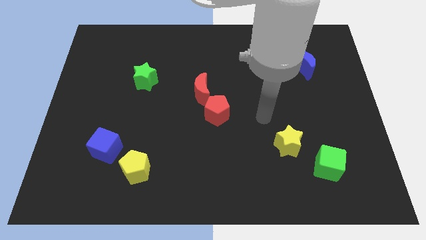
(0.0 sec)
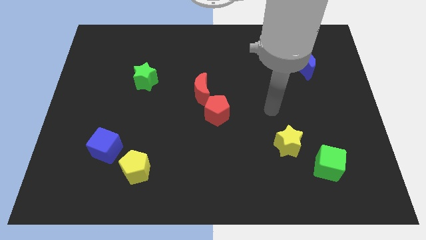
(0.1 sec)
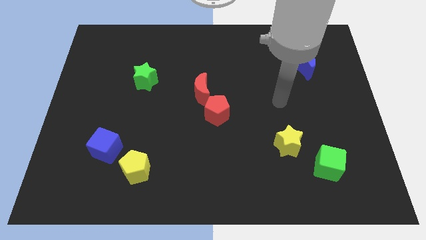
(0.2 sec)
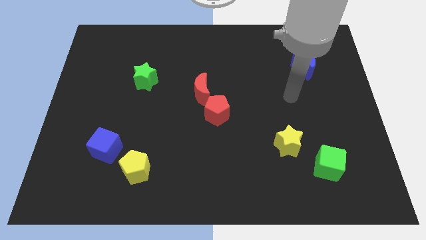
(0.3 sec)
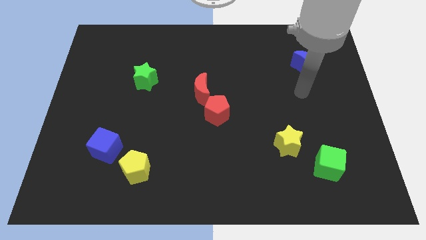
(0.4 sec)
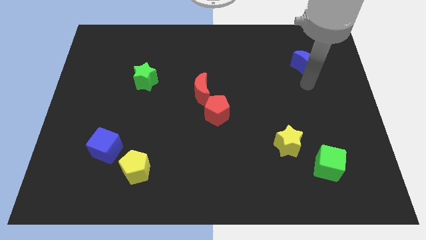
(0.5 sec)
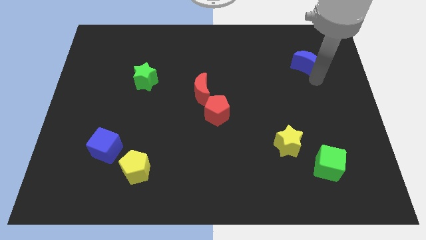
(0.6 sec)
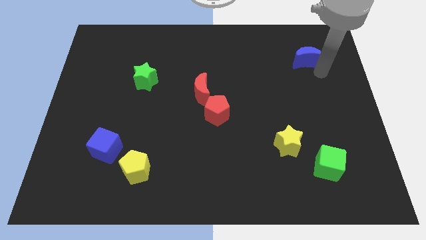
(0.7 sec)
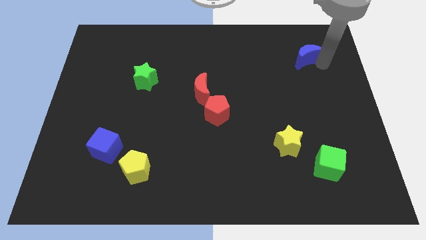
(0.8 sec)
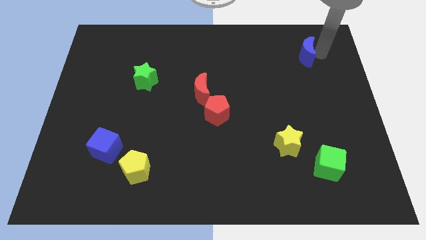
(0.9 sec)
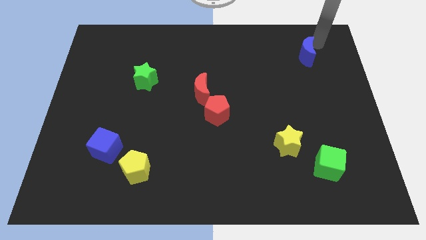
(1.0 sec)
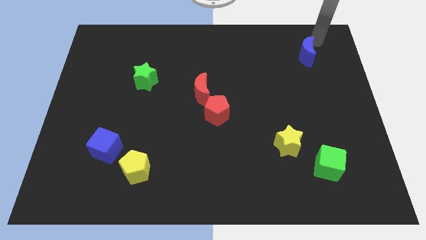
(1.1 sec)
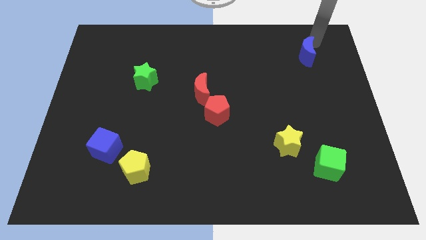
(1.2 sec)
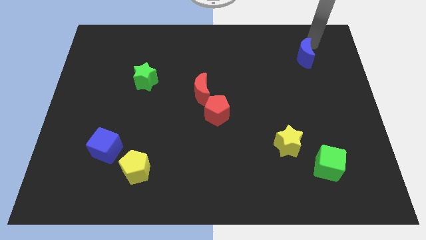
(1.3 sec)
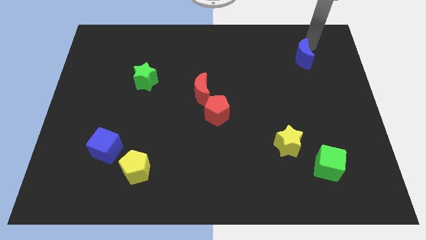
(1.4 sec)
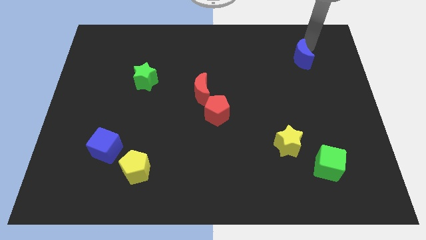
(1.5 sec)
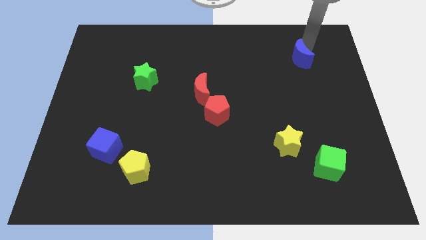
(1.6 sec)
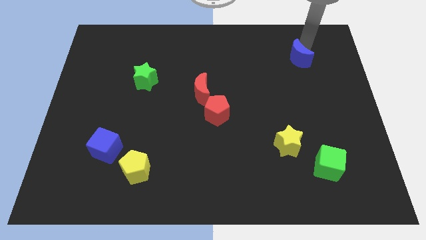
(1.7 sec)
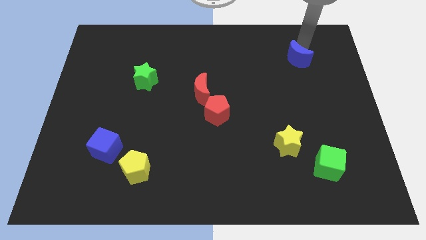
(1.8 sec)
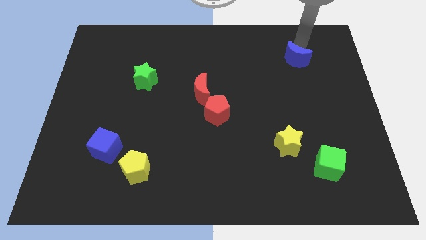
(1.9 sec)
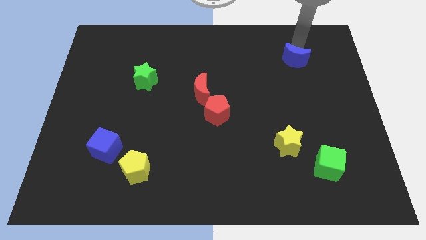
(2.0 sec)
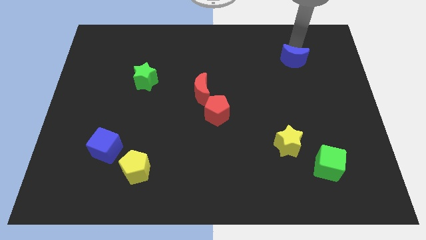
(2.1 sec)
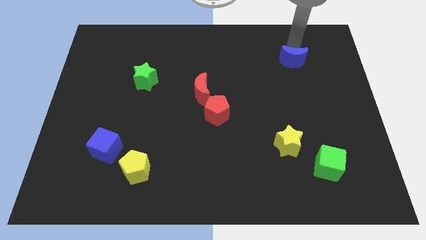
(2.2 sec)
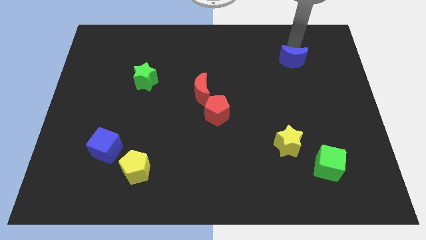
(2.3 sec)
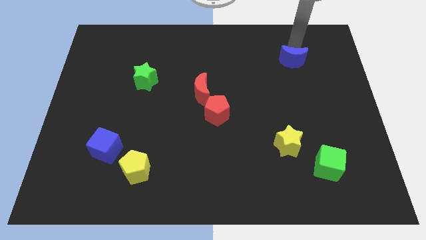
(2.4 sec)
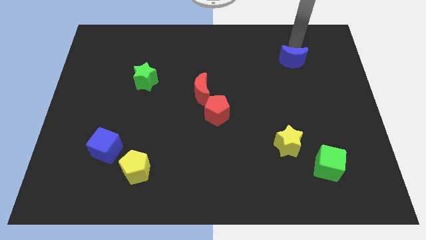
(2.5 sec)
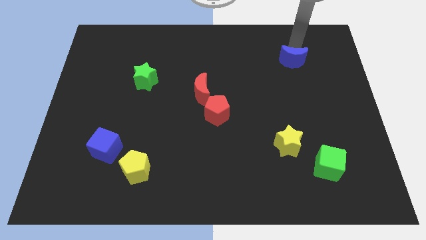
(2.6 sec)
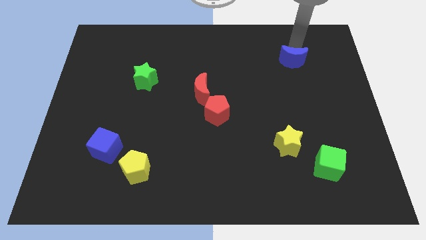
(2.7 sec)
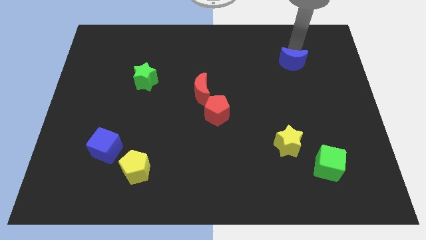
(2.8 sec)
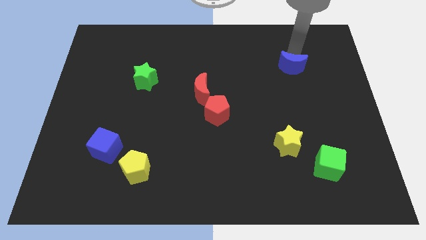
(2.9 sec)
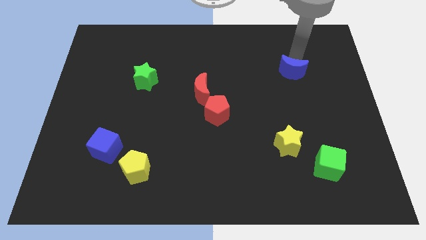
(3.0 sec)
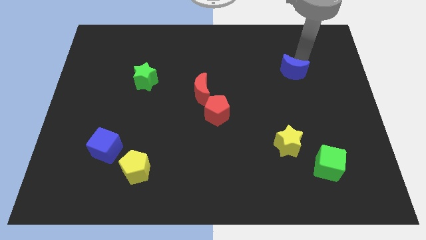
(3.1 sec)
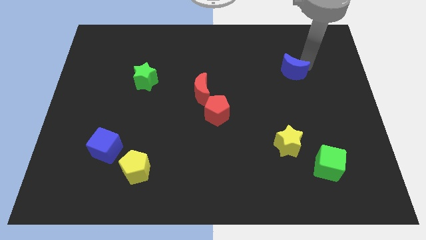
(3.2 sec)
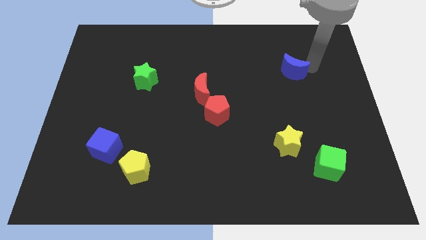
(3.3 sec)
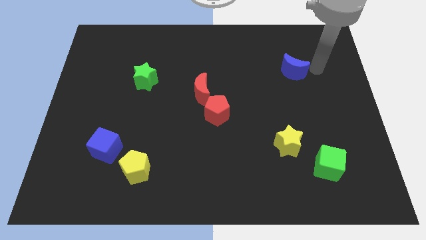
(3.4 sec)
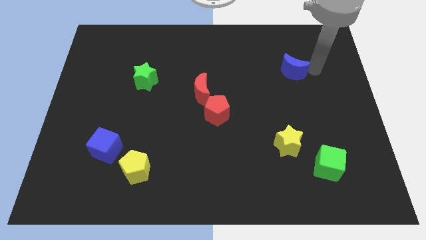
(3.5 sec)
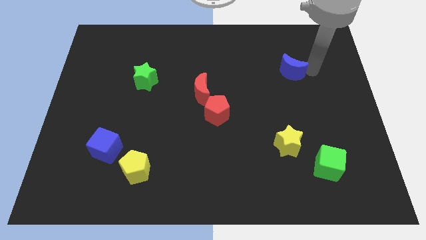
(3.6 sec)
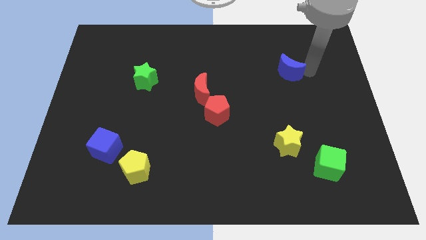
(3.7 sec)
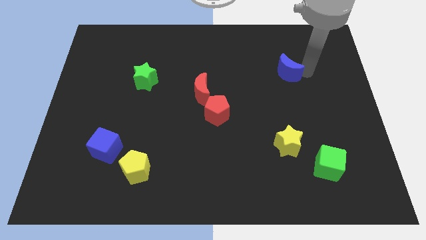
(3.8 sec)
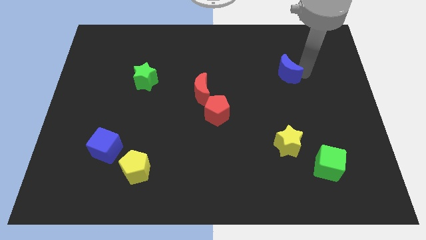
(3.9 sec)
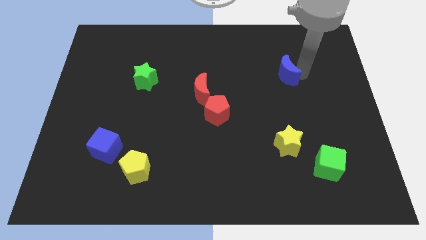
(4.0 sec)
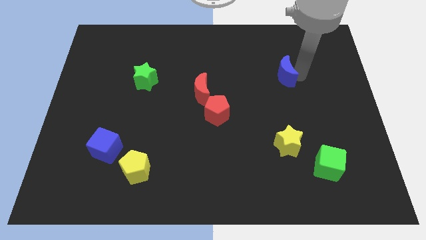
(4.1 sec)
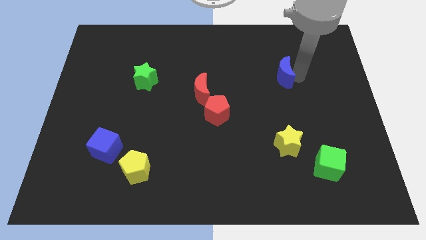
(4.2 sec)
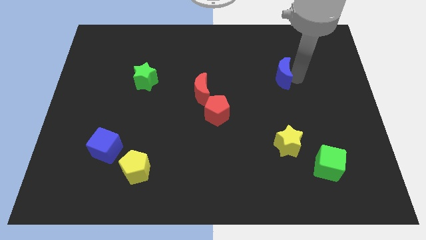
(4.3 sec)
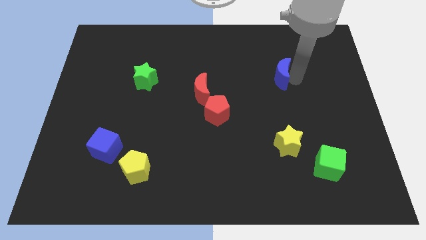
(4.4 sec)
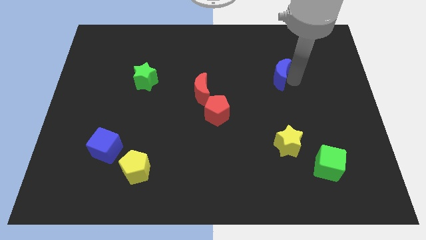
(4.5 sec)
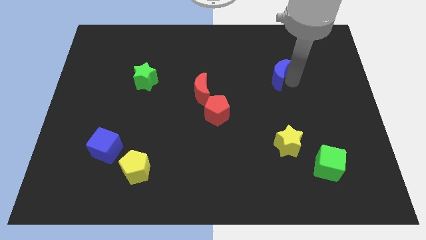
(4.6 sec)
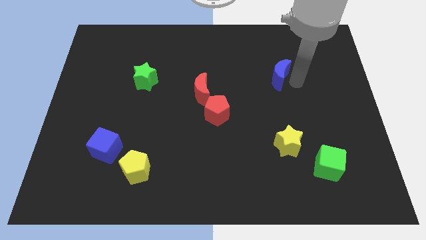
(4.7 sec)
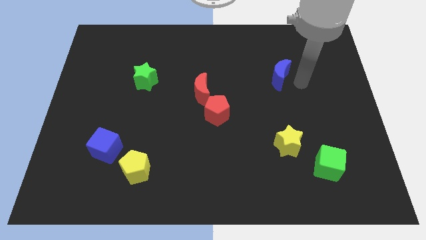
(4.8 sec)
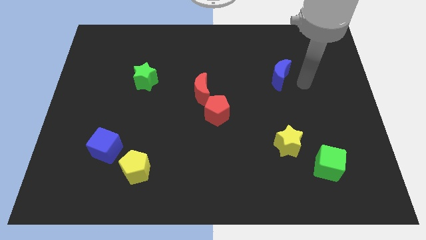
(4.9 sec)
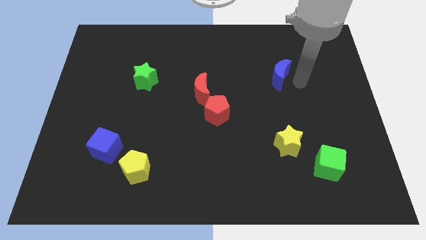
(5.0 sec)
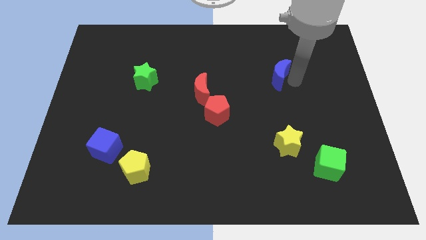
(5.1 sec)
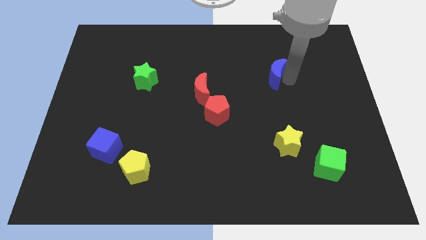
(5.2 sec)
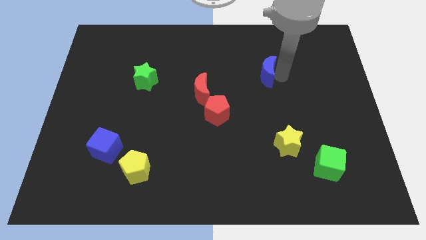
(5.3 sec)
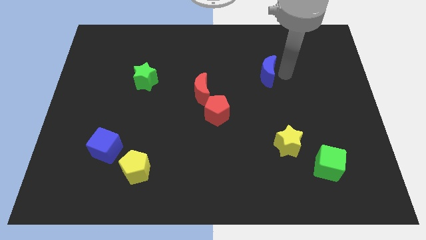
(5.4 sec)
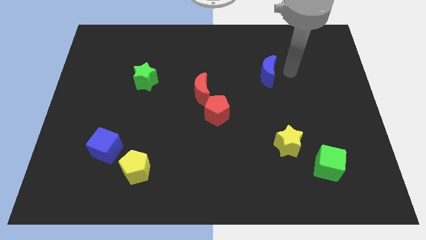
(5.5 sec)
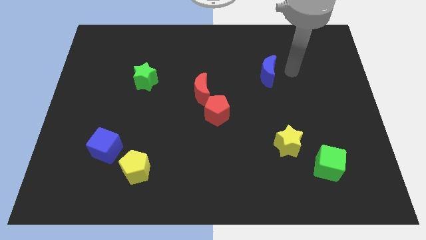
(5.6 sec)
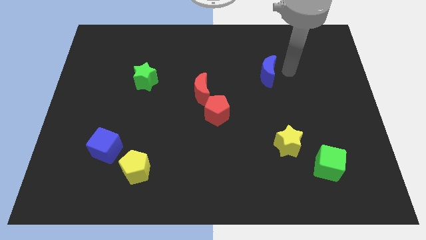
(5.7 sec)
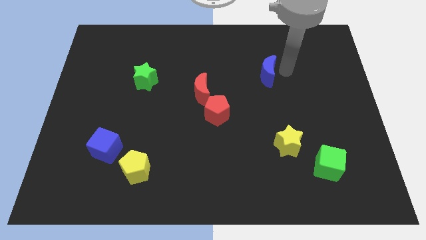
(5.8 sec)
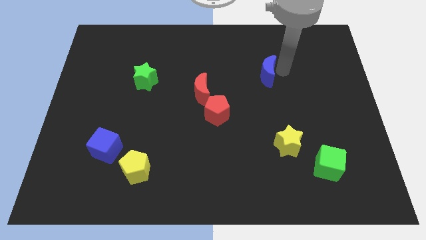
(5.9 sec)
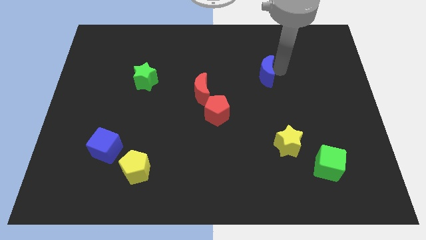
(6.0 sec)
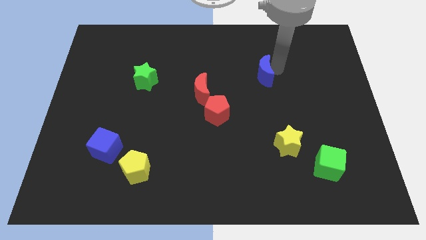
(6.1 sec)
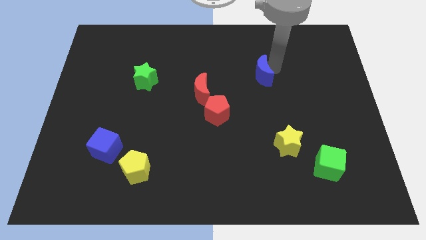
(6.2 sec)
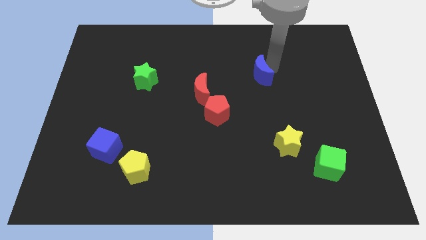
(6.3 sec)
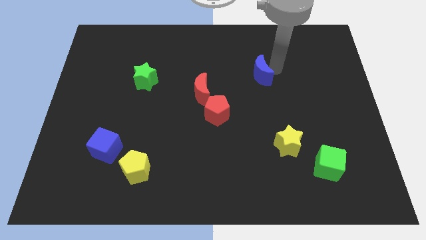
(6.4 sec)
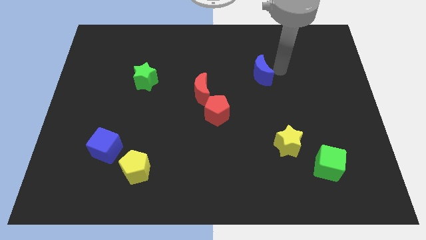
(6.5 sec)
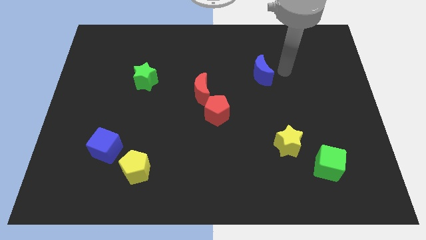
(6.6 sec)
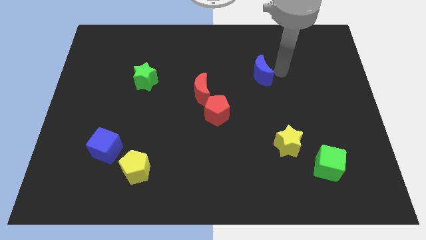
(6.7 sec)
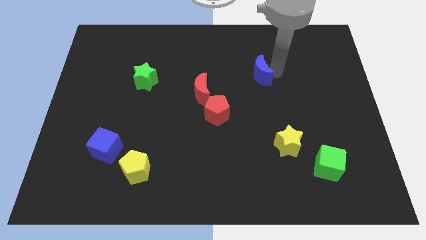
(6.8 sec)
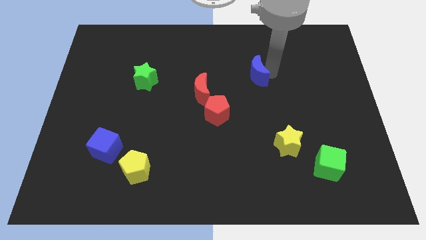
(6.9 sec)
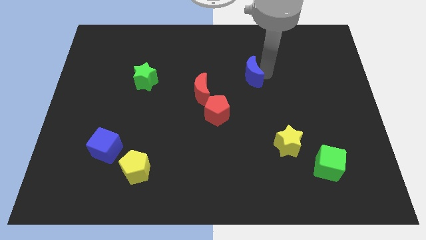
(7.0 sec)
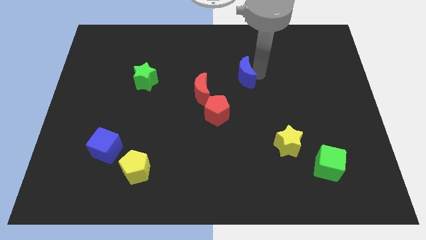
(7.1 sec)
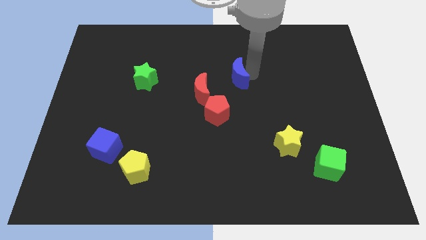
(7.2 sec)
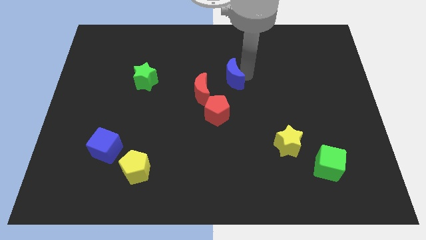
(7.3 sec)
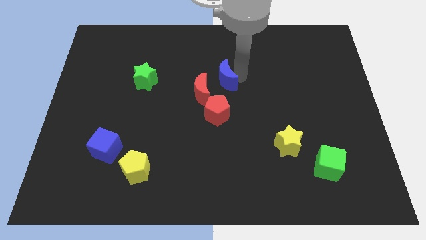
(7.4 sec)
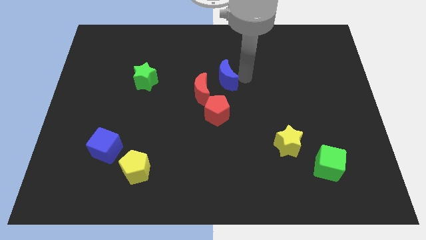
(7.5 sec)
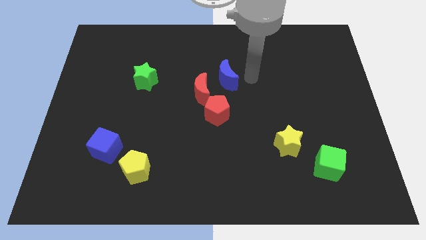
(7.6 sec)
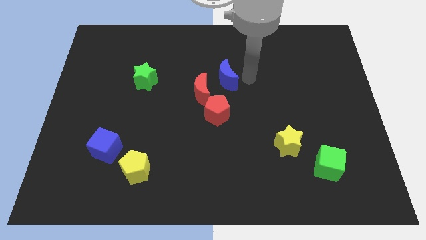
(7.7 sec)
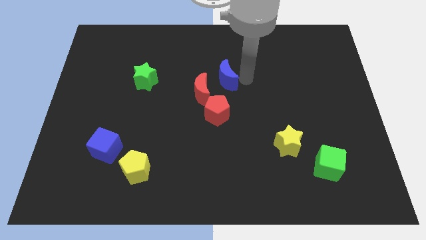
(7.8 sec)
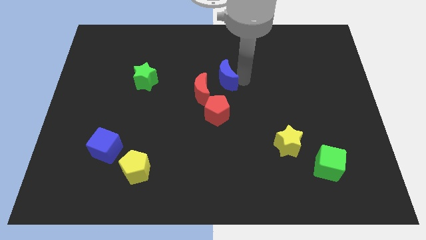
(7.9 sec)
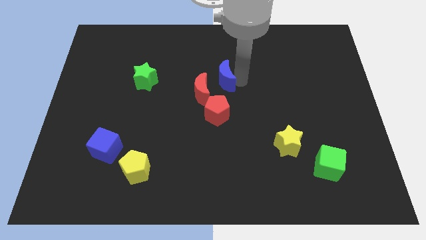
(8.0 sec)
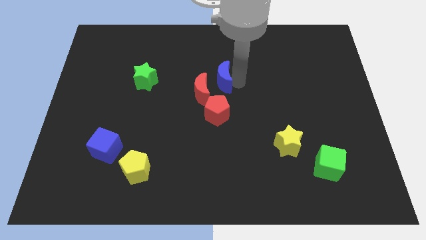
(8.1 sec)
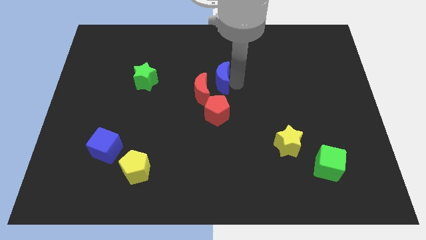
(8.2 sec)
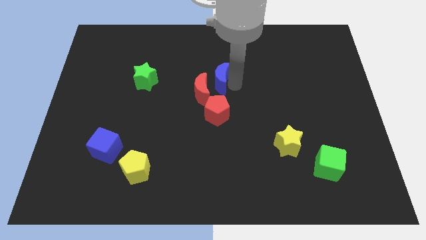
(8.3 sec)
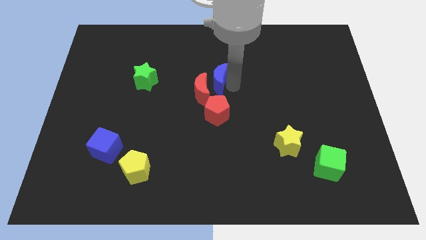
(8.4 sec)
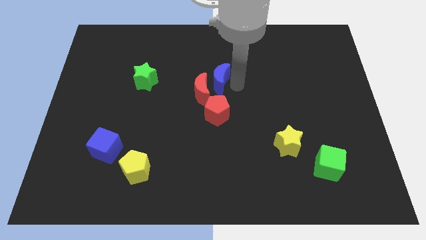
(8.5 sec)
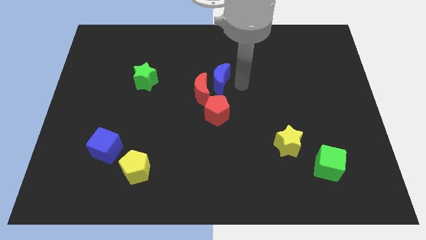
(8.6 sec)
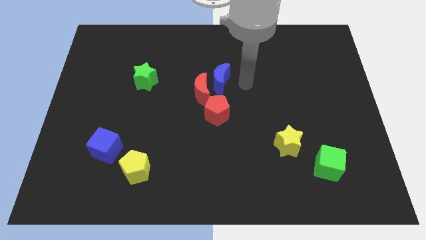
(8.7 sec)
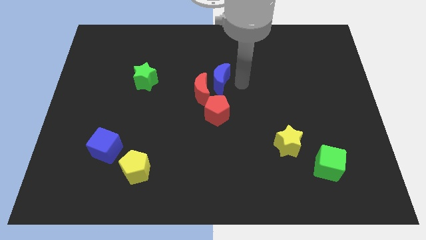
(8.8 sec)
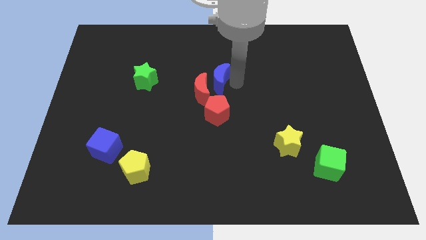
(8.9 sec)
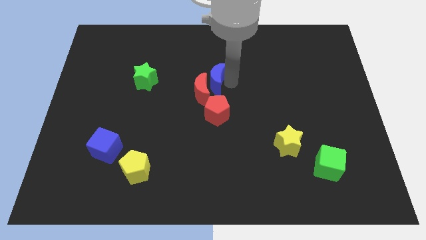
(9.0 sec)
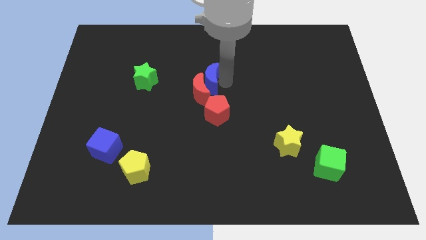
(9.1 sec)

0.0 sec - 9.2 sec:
push the blue moon right of the green star
